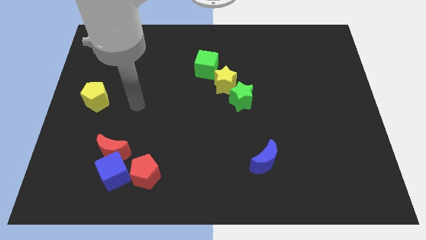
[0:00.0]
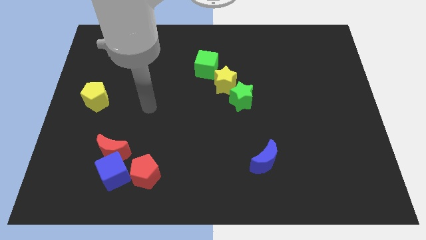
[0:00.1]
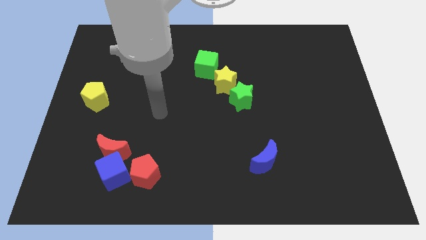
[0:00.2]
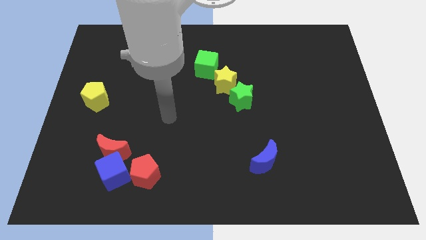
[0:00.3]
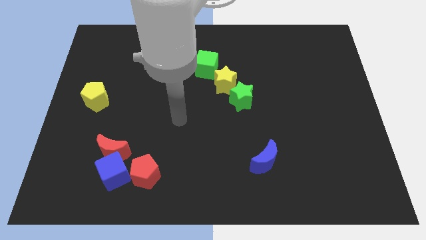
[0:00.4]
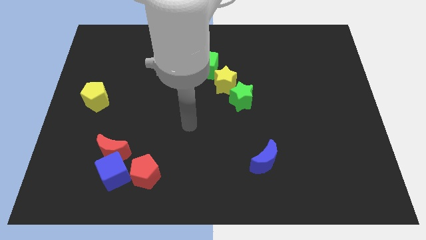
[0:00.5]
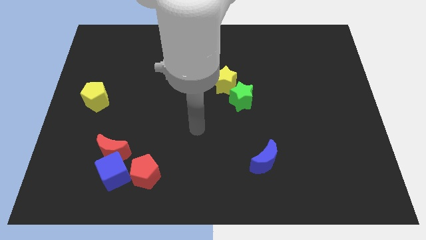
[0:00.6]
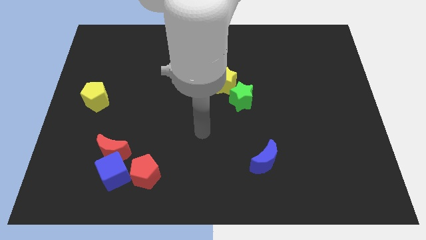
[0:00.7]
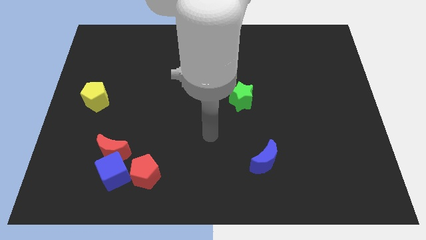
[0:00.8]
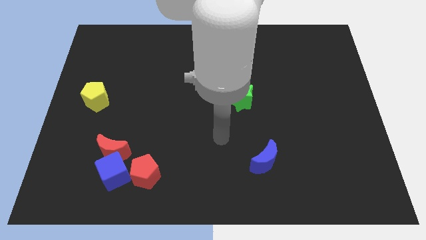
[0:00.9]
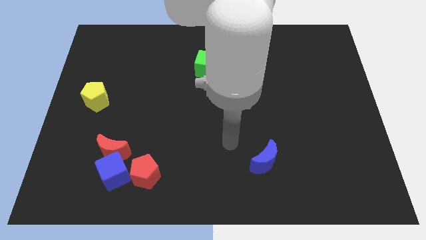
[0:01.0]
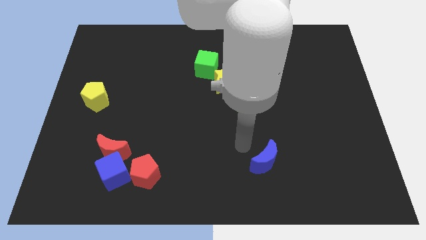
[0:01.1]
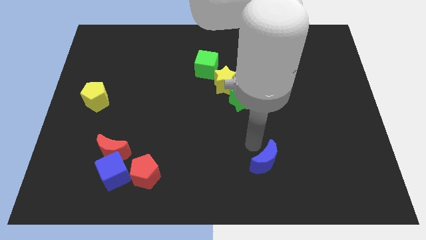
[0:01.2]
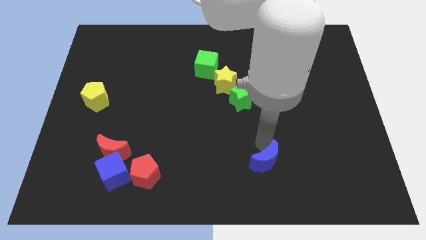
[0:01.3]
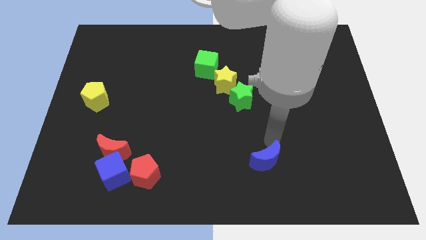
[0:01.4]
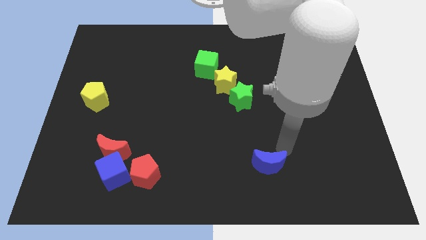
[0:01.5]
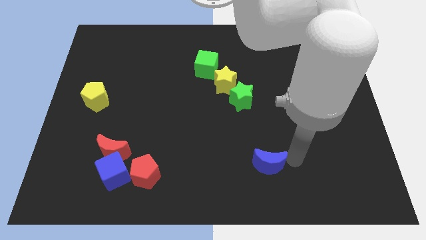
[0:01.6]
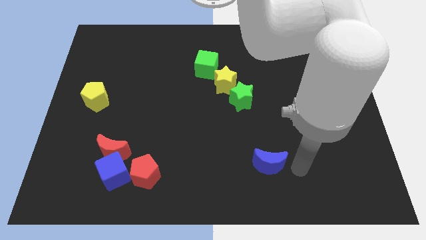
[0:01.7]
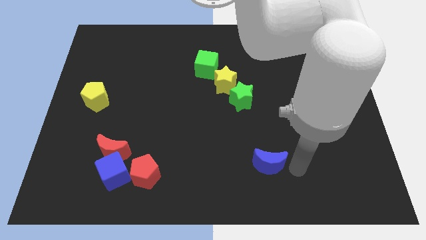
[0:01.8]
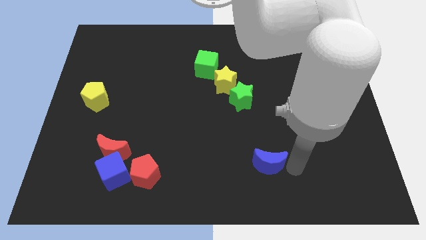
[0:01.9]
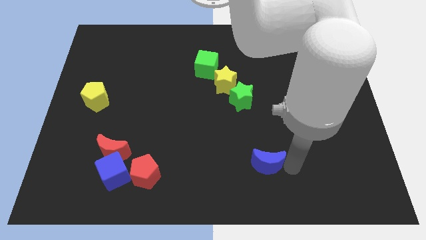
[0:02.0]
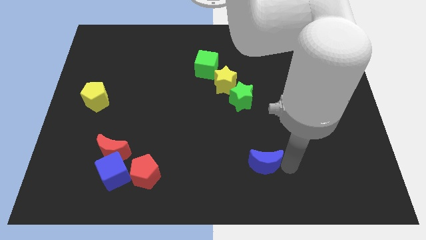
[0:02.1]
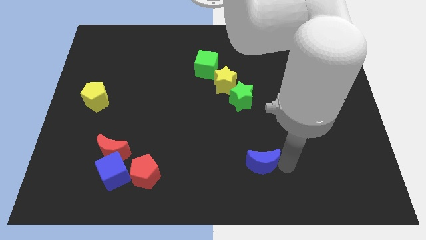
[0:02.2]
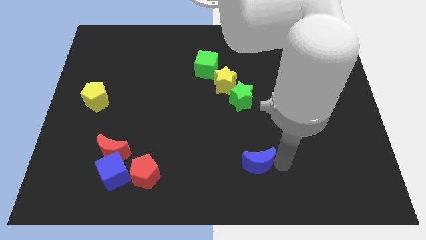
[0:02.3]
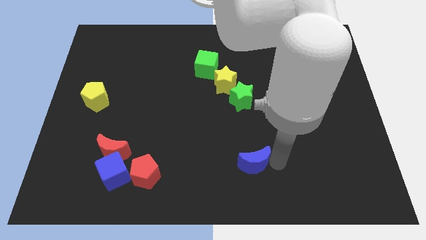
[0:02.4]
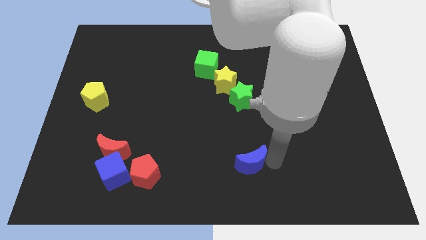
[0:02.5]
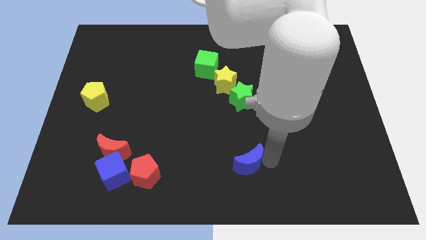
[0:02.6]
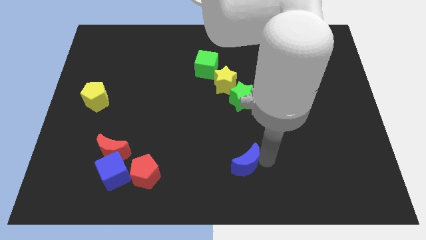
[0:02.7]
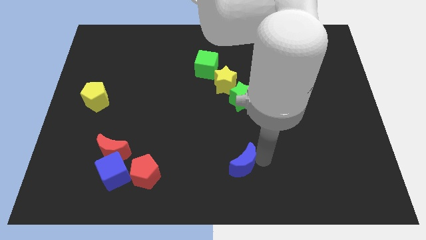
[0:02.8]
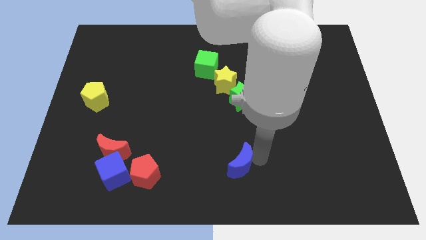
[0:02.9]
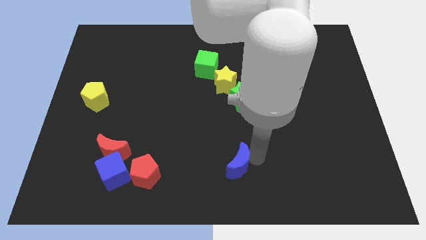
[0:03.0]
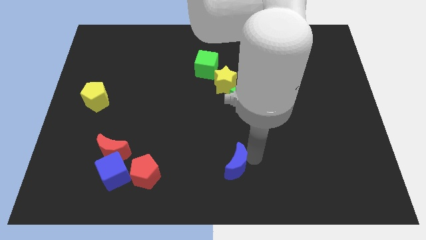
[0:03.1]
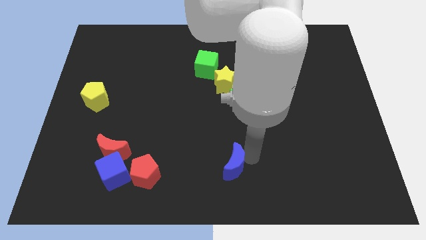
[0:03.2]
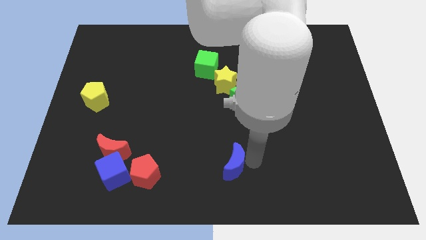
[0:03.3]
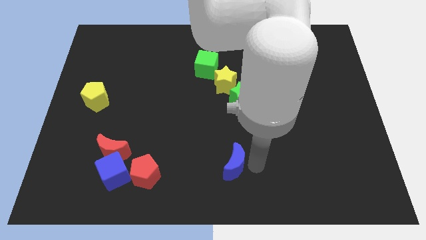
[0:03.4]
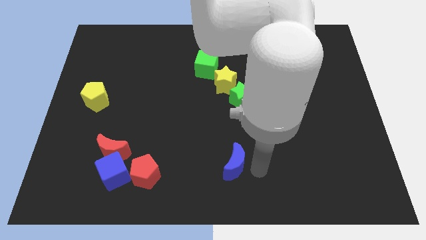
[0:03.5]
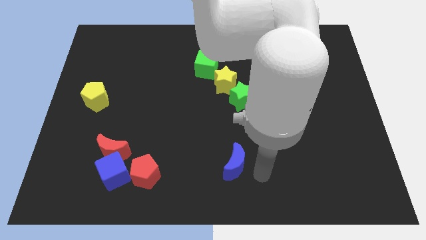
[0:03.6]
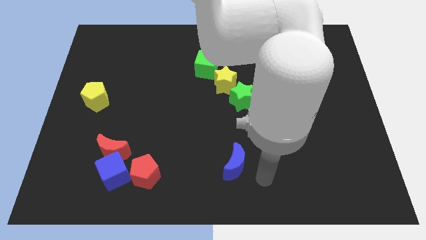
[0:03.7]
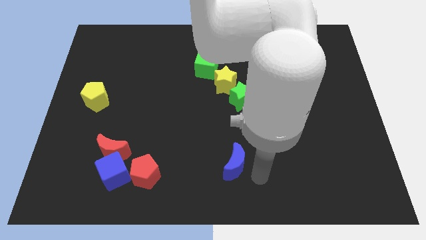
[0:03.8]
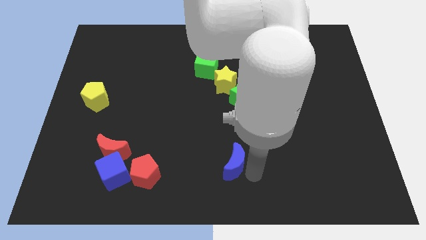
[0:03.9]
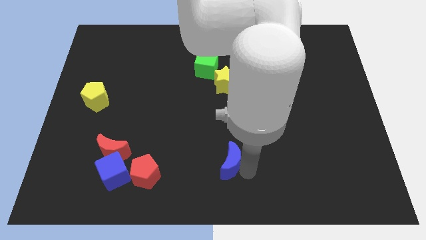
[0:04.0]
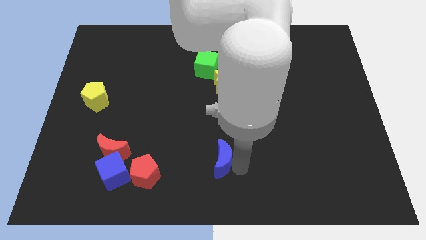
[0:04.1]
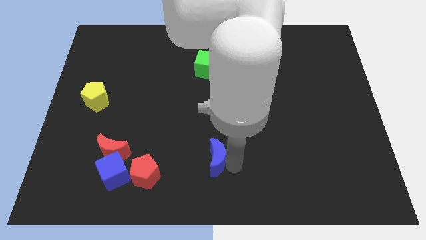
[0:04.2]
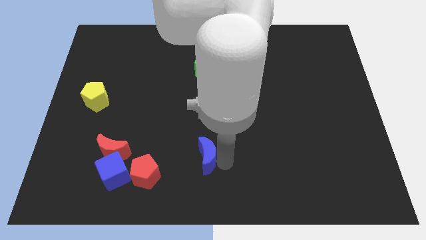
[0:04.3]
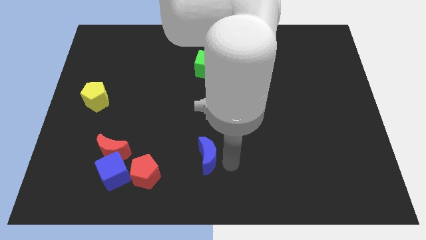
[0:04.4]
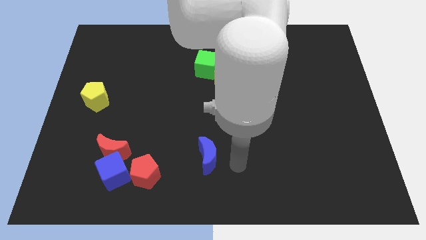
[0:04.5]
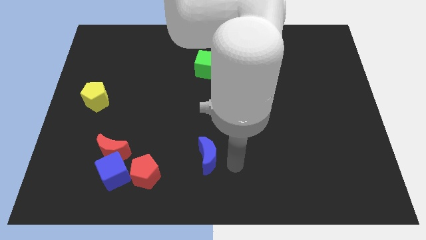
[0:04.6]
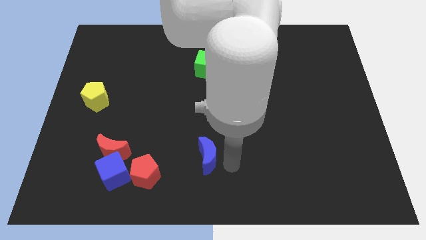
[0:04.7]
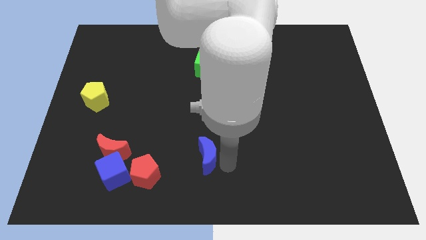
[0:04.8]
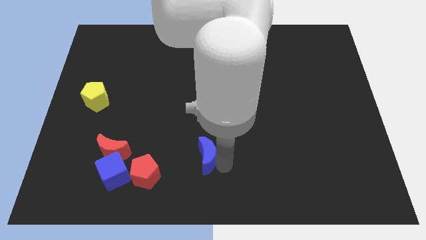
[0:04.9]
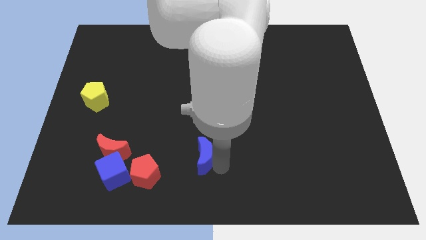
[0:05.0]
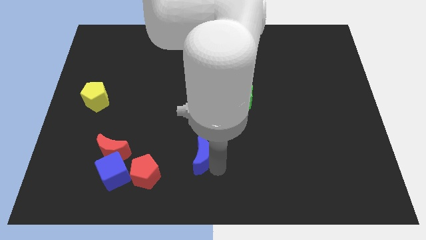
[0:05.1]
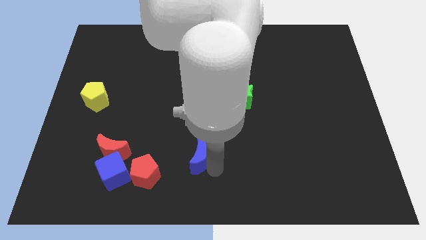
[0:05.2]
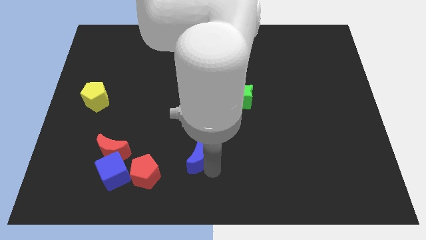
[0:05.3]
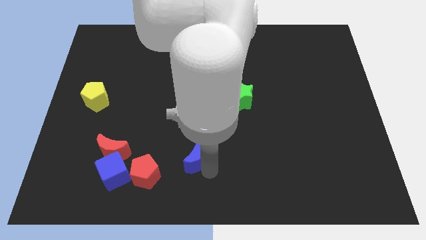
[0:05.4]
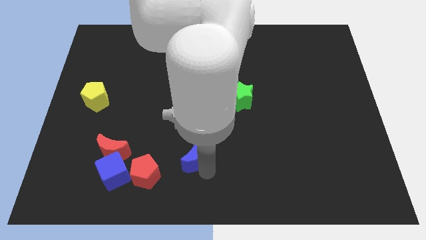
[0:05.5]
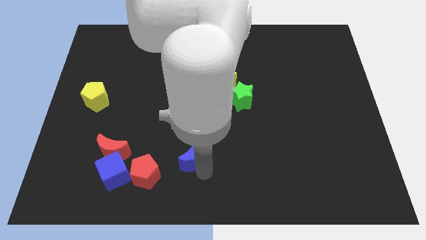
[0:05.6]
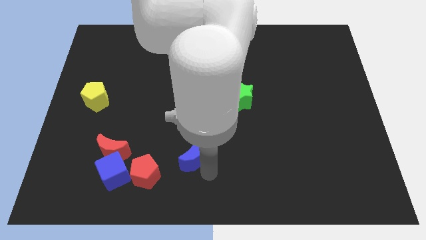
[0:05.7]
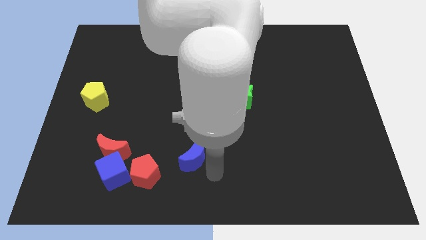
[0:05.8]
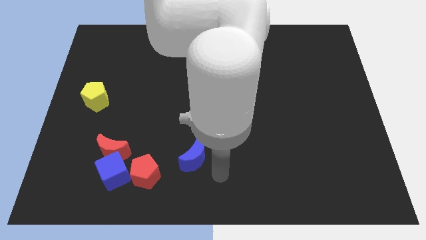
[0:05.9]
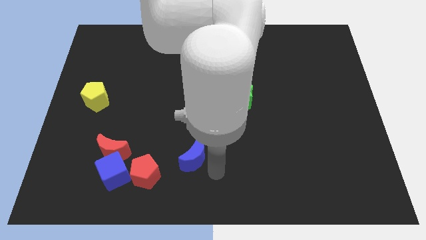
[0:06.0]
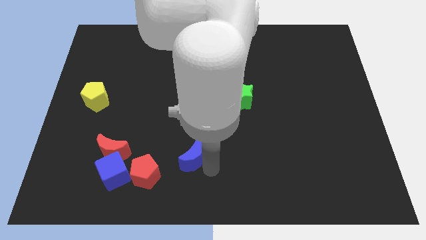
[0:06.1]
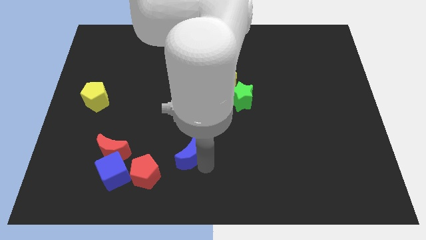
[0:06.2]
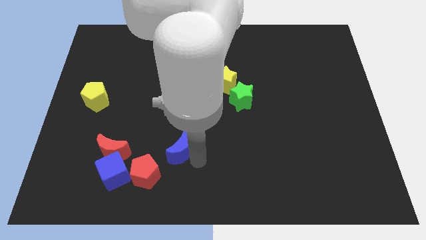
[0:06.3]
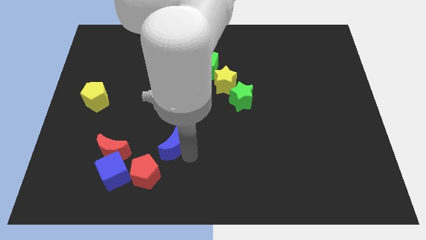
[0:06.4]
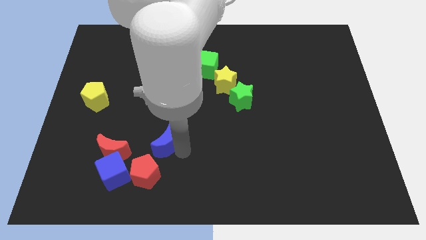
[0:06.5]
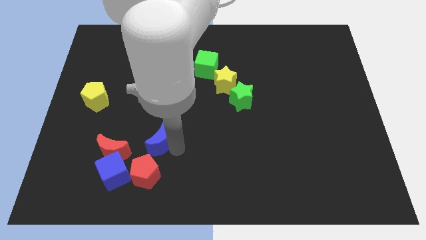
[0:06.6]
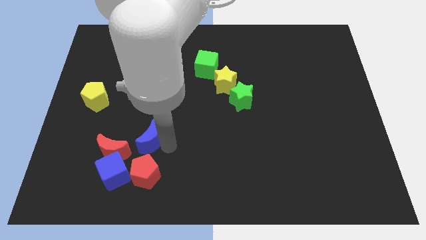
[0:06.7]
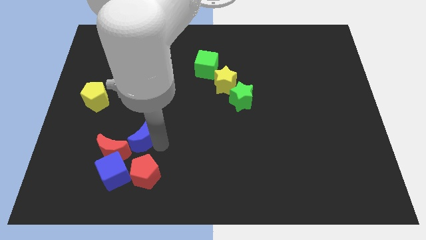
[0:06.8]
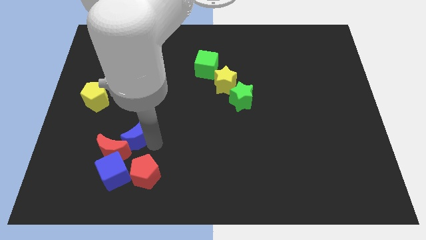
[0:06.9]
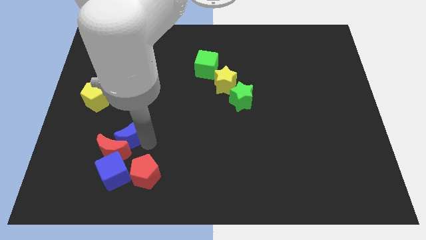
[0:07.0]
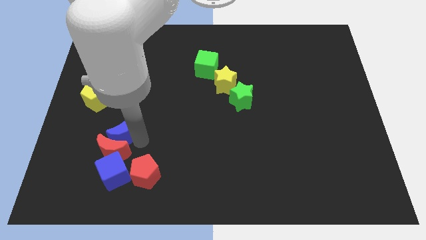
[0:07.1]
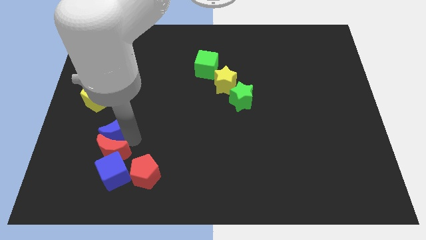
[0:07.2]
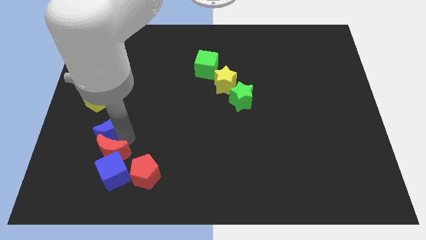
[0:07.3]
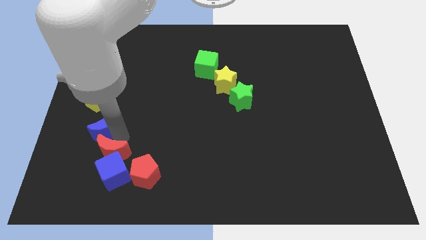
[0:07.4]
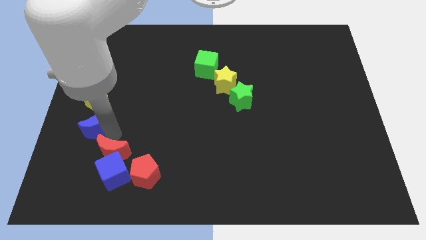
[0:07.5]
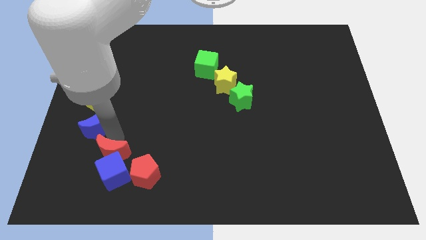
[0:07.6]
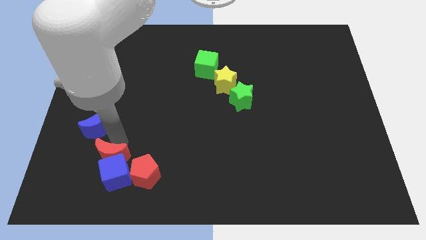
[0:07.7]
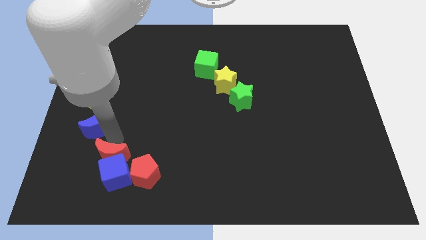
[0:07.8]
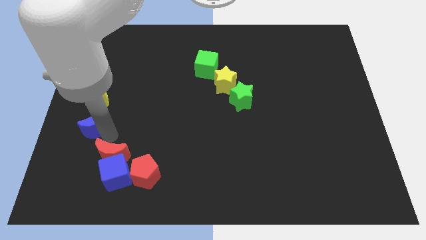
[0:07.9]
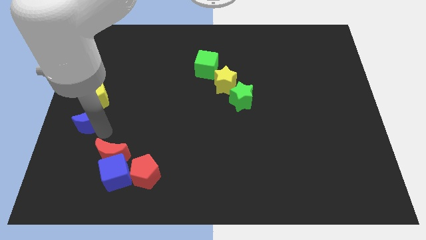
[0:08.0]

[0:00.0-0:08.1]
put the blue moon to the left side
